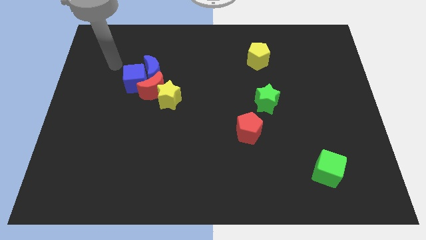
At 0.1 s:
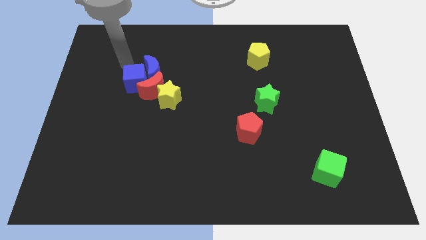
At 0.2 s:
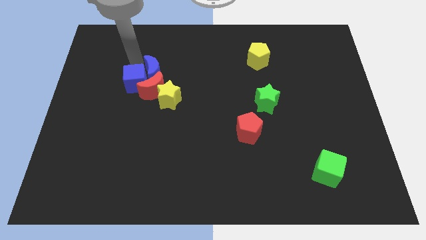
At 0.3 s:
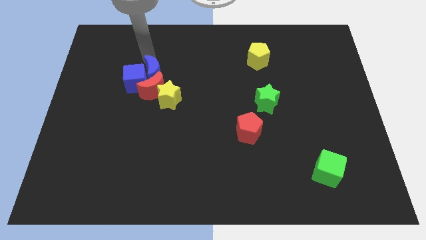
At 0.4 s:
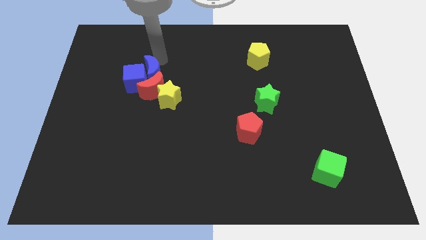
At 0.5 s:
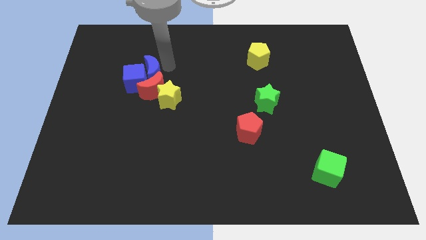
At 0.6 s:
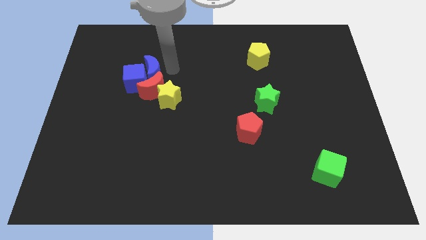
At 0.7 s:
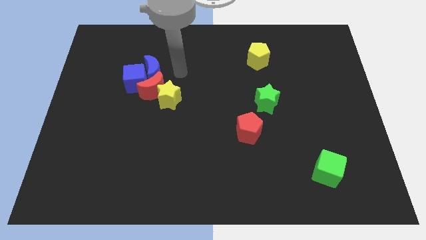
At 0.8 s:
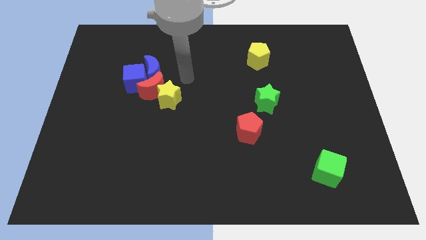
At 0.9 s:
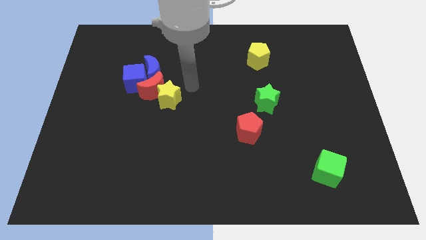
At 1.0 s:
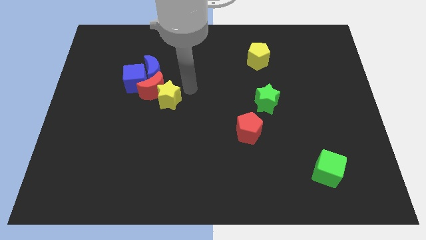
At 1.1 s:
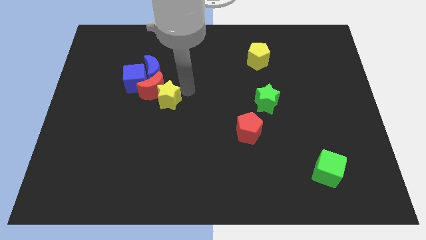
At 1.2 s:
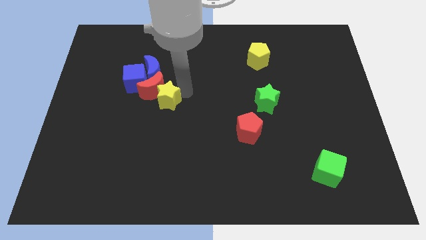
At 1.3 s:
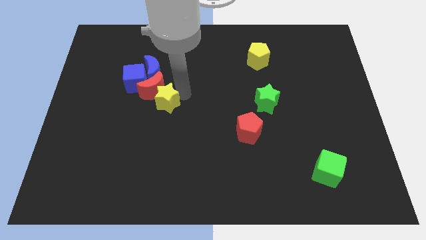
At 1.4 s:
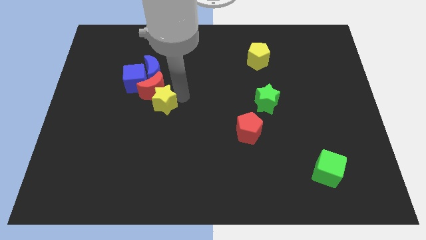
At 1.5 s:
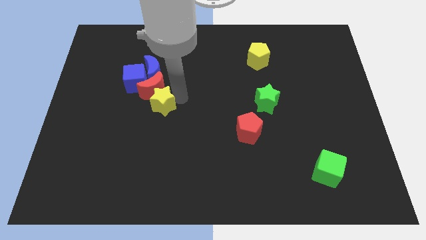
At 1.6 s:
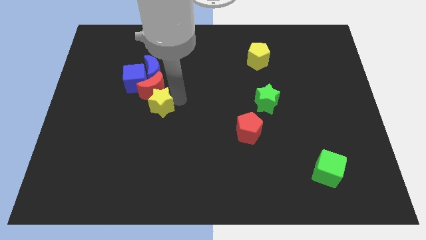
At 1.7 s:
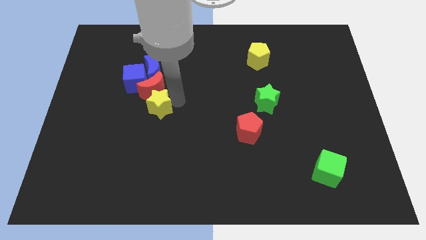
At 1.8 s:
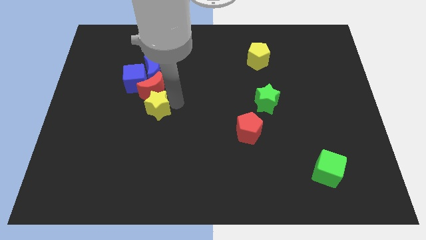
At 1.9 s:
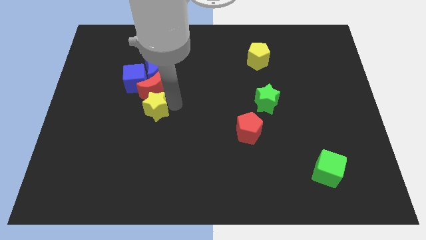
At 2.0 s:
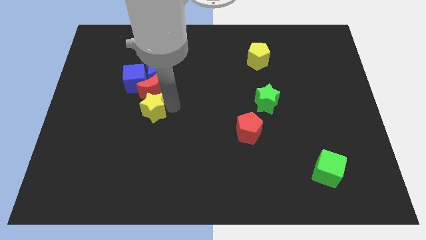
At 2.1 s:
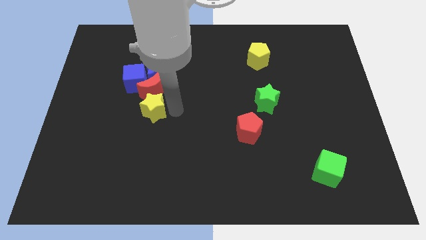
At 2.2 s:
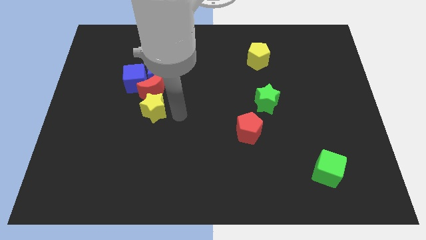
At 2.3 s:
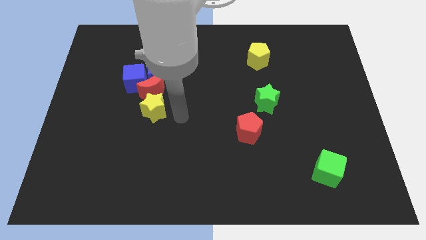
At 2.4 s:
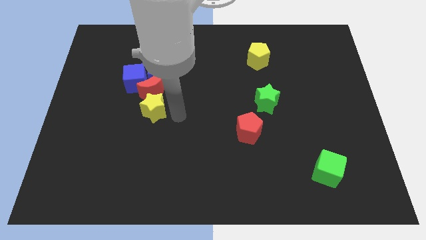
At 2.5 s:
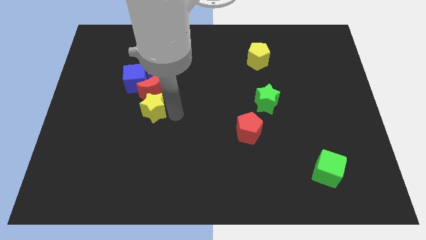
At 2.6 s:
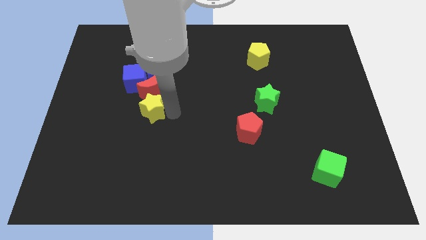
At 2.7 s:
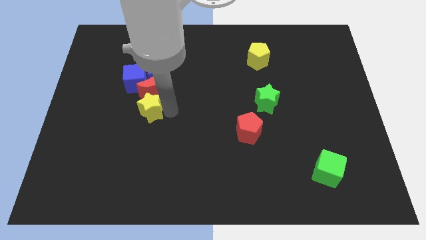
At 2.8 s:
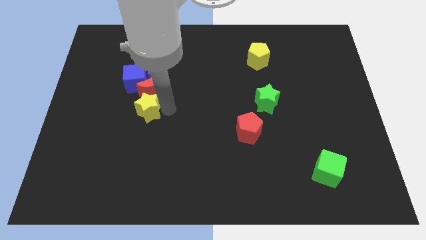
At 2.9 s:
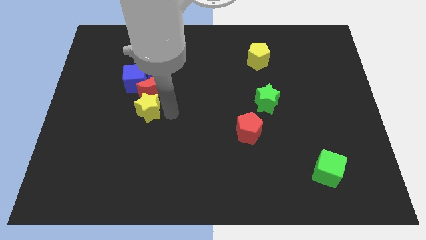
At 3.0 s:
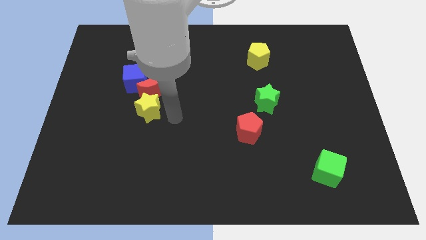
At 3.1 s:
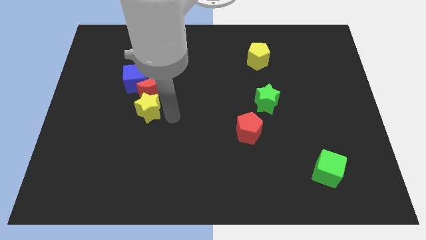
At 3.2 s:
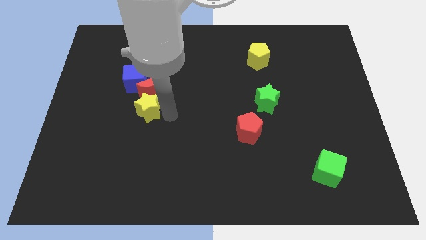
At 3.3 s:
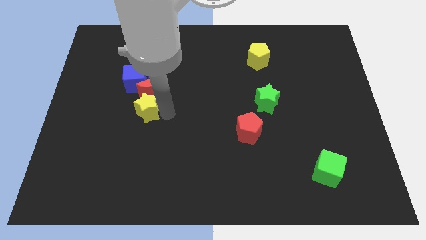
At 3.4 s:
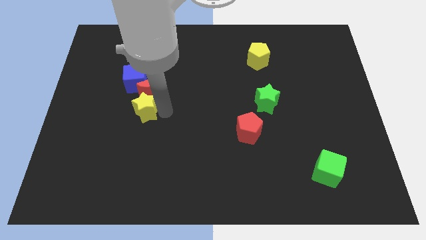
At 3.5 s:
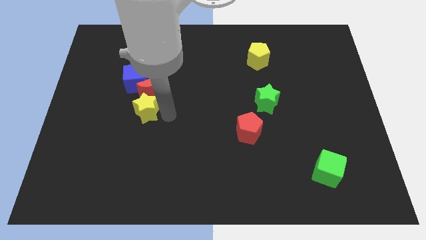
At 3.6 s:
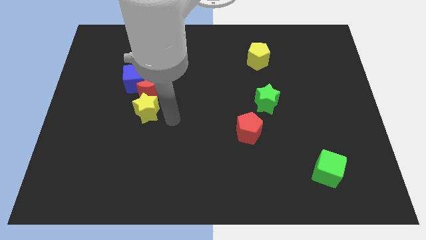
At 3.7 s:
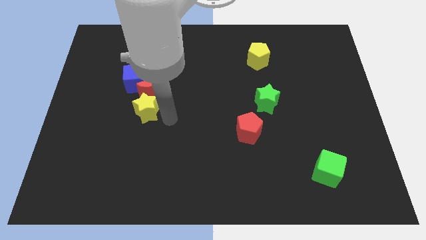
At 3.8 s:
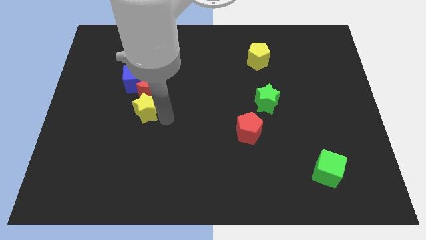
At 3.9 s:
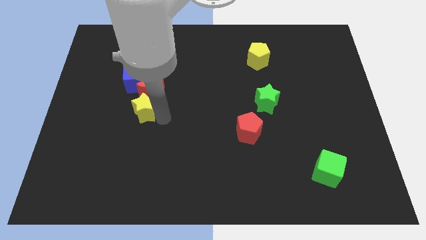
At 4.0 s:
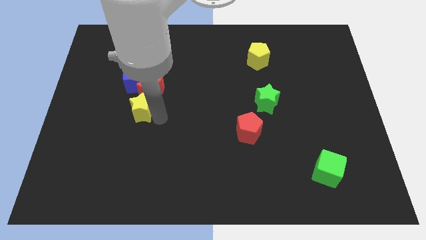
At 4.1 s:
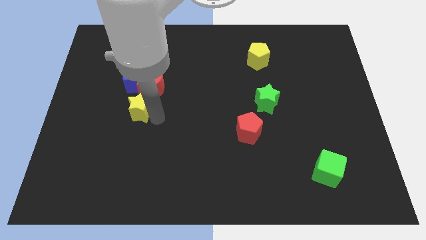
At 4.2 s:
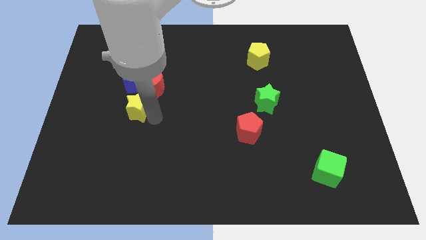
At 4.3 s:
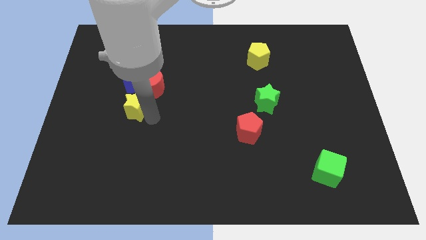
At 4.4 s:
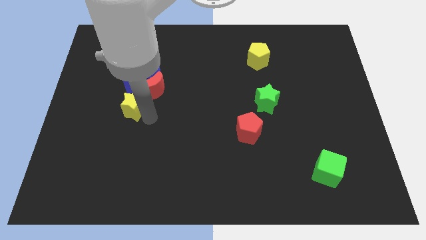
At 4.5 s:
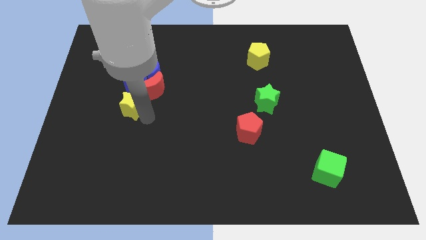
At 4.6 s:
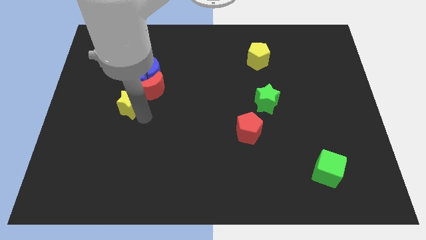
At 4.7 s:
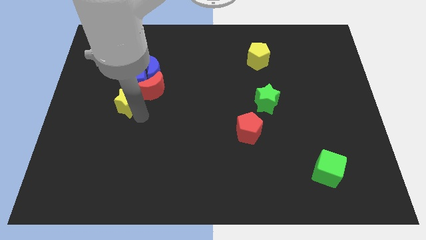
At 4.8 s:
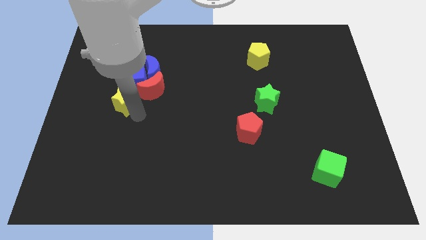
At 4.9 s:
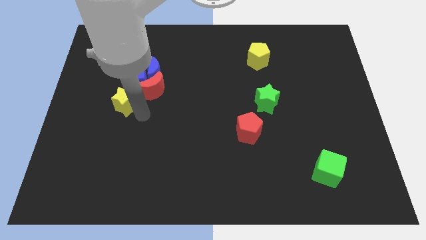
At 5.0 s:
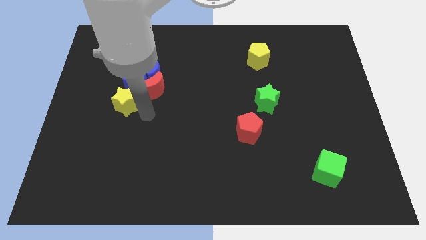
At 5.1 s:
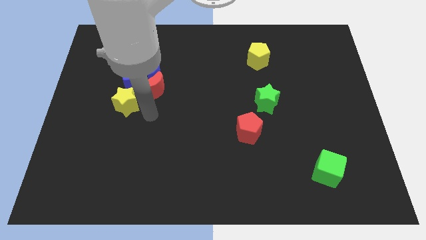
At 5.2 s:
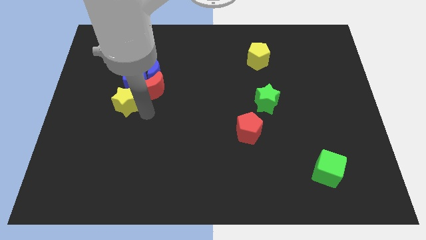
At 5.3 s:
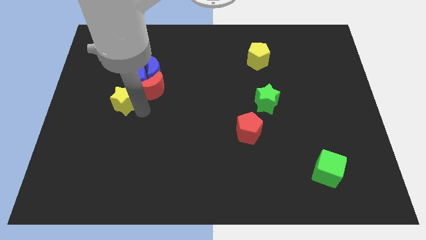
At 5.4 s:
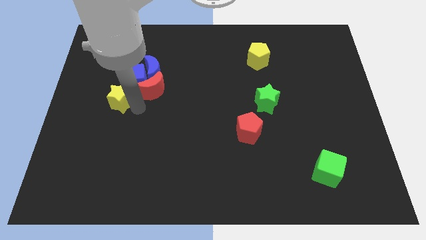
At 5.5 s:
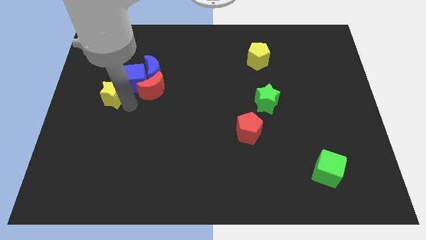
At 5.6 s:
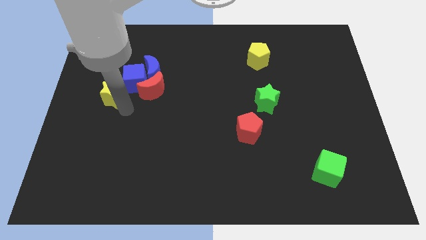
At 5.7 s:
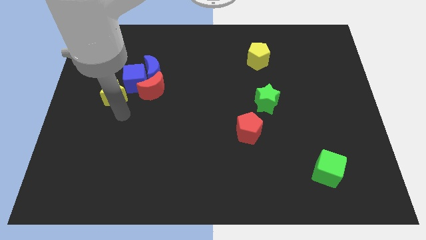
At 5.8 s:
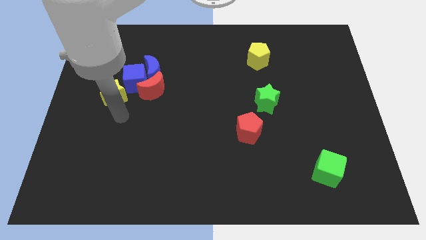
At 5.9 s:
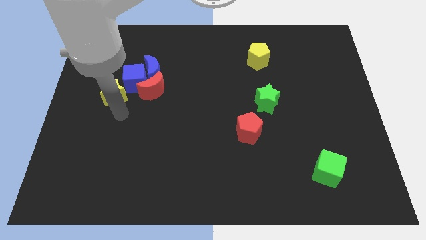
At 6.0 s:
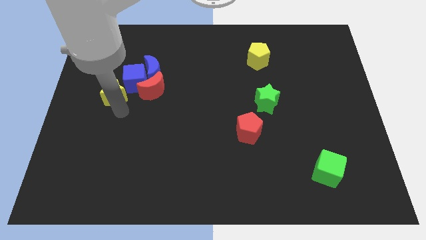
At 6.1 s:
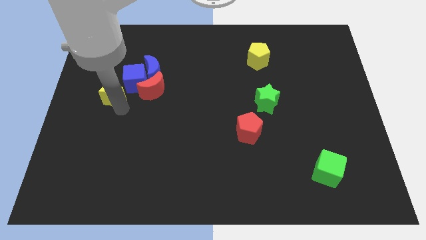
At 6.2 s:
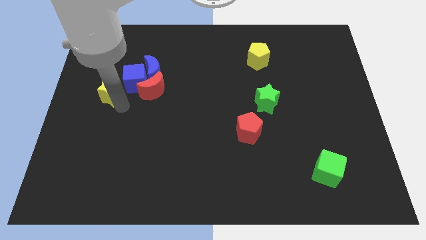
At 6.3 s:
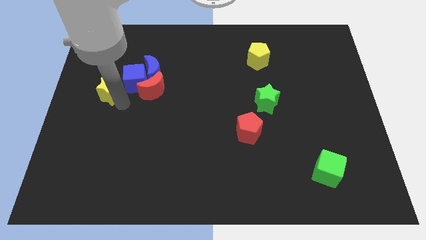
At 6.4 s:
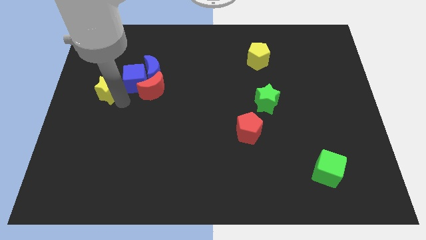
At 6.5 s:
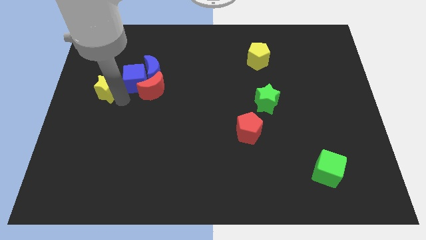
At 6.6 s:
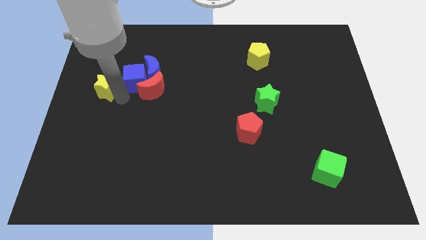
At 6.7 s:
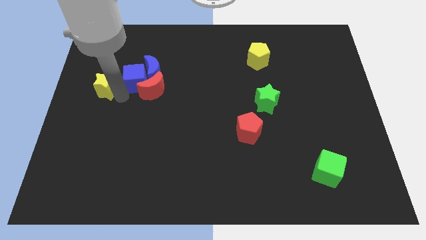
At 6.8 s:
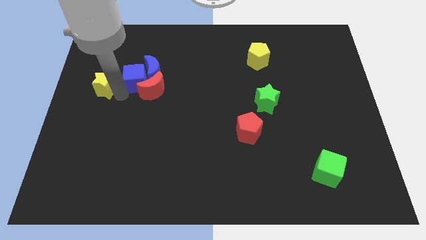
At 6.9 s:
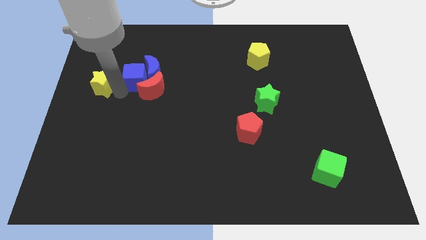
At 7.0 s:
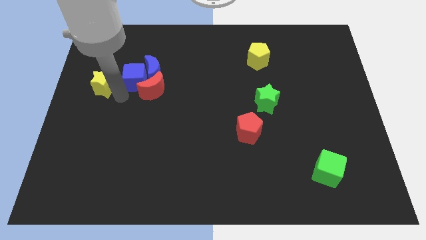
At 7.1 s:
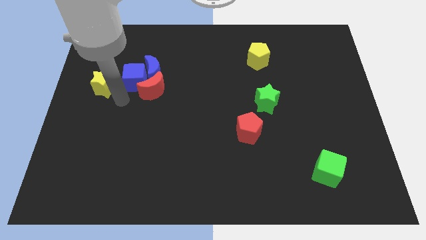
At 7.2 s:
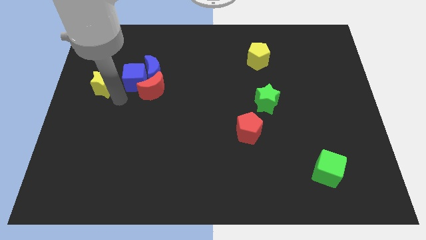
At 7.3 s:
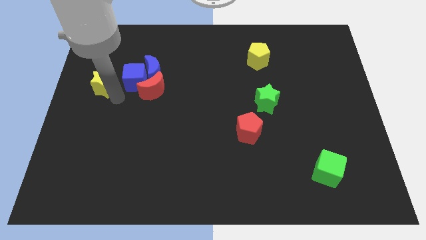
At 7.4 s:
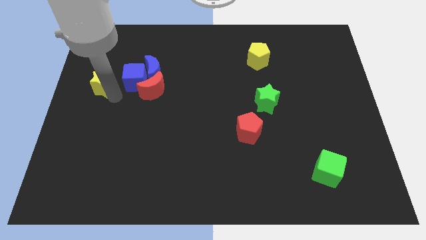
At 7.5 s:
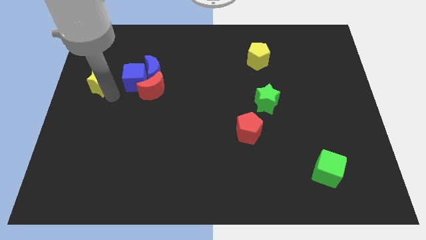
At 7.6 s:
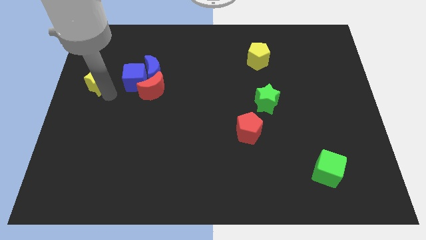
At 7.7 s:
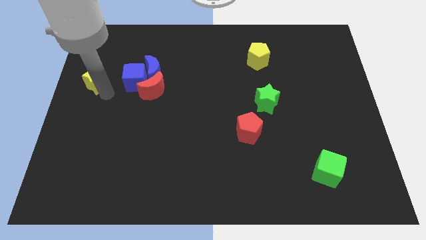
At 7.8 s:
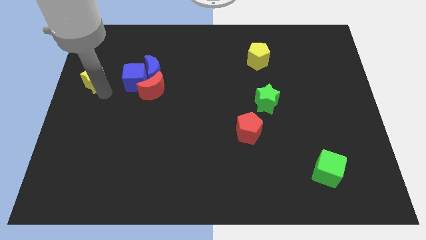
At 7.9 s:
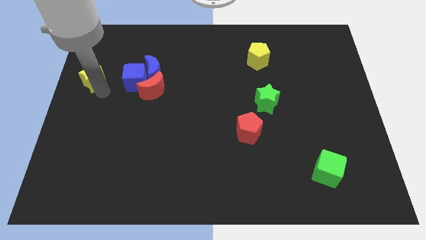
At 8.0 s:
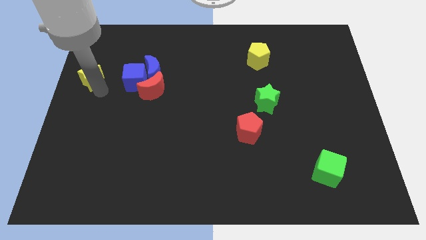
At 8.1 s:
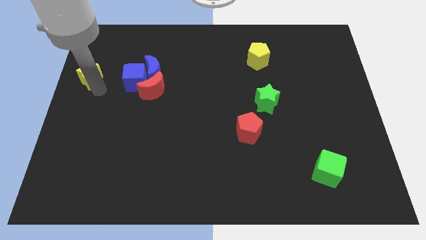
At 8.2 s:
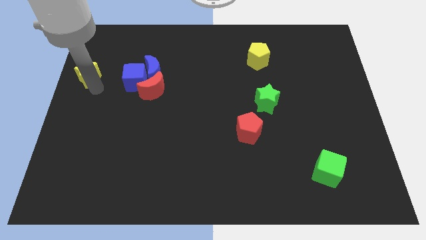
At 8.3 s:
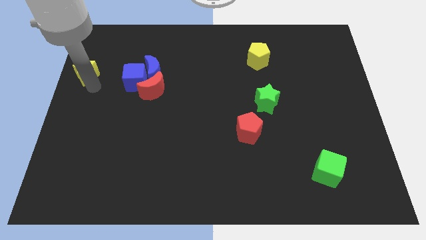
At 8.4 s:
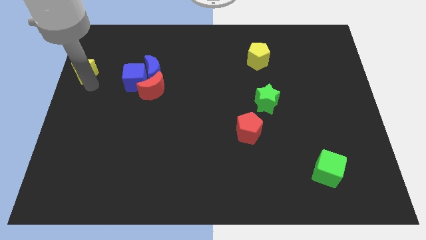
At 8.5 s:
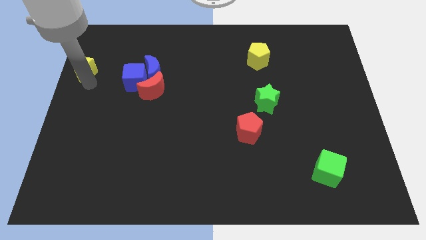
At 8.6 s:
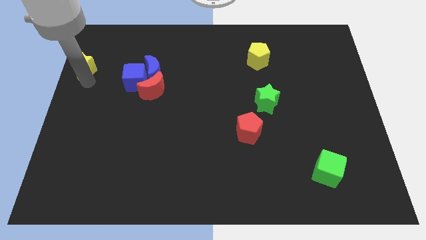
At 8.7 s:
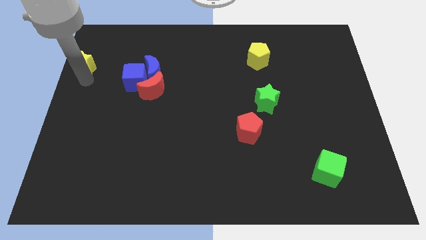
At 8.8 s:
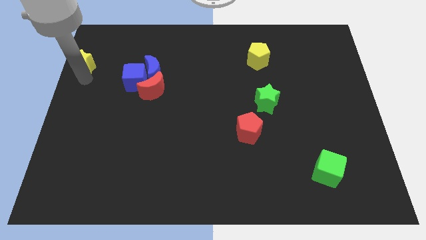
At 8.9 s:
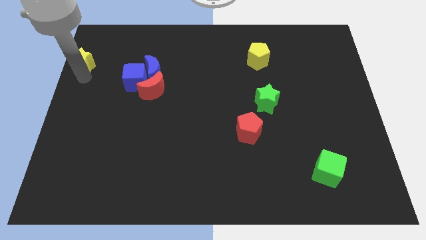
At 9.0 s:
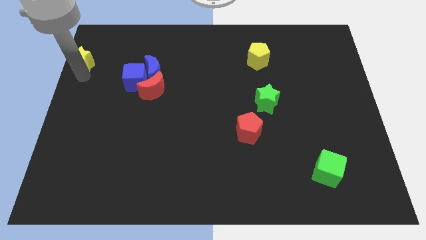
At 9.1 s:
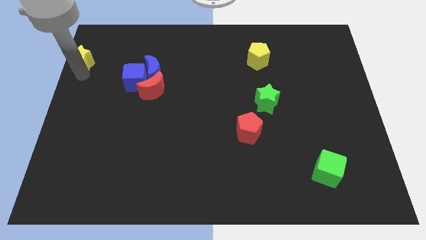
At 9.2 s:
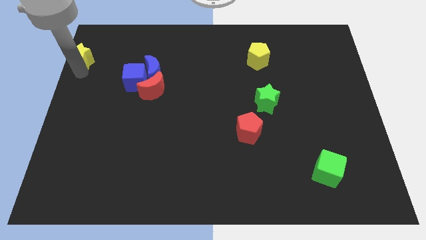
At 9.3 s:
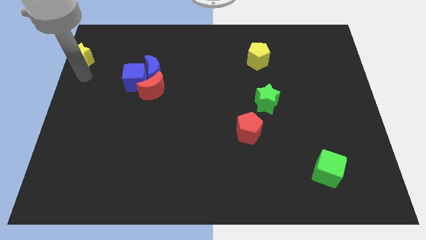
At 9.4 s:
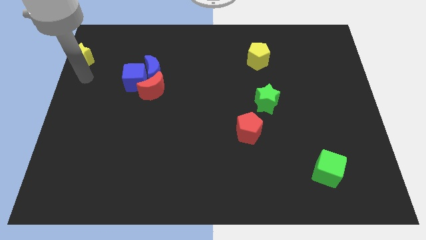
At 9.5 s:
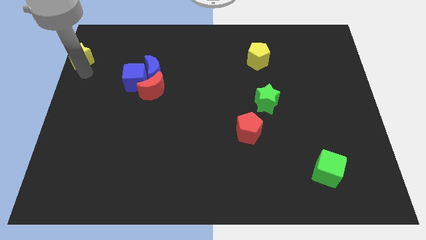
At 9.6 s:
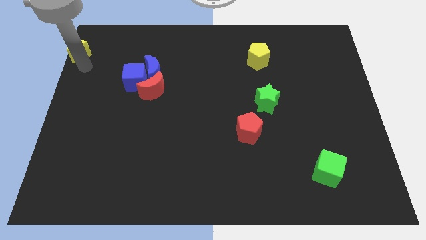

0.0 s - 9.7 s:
slide the yellow star to the top left
